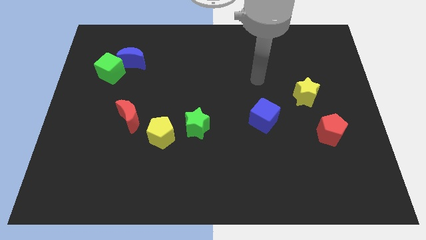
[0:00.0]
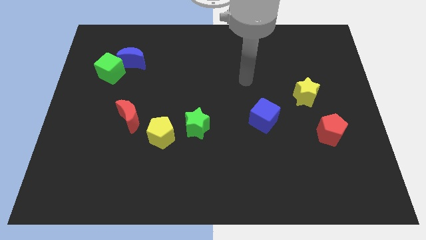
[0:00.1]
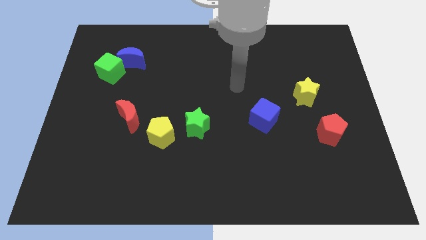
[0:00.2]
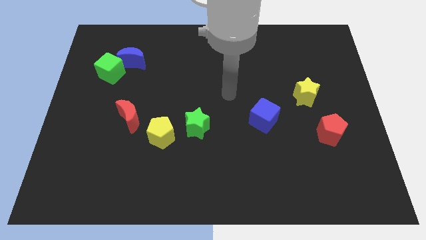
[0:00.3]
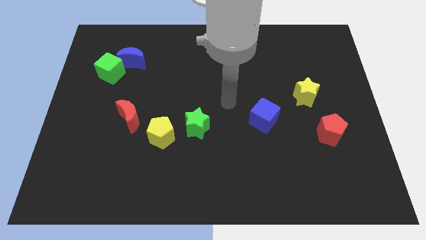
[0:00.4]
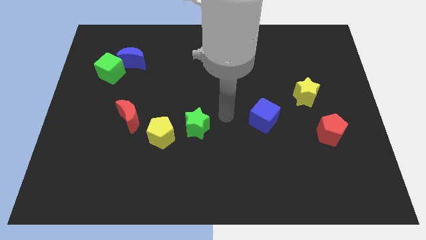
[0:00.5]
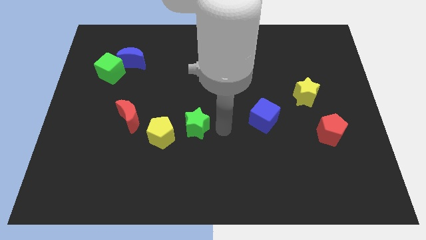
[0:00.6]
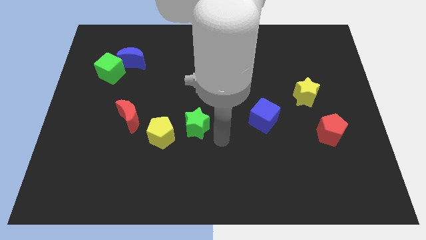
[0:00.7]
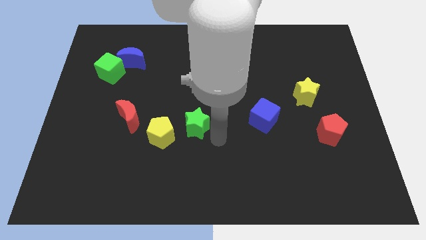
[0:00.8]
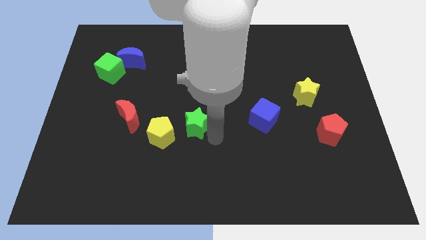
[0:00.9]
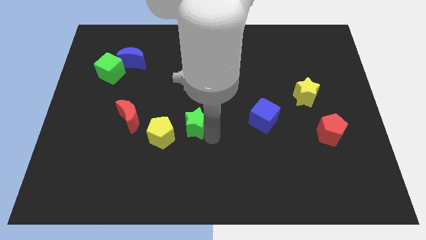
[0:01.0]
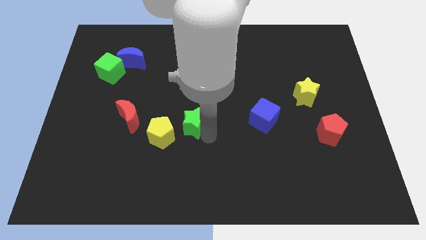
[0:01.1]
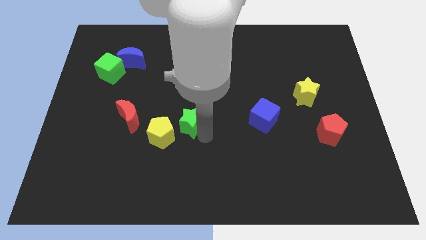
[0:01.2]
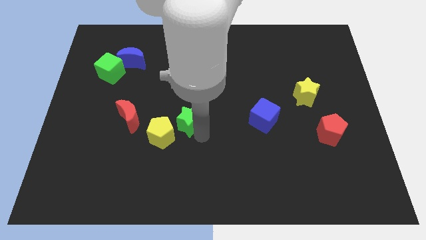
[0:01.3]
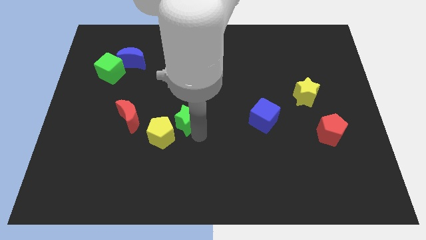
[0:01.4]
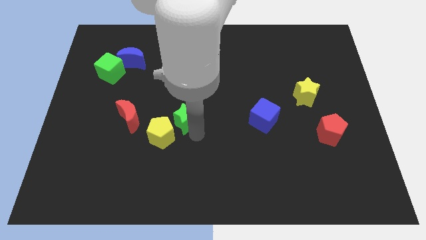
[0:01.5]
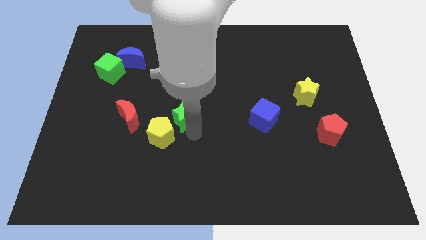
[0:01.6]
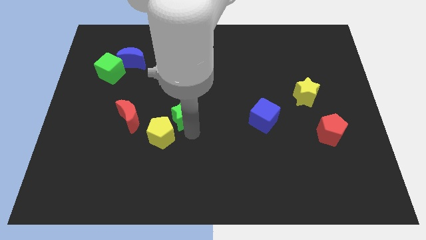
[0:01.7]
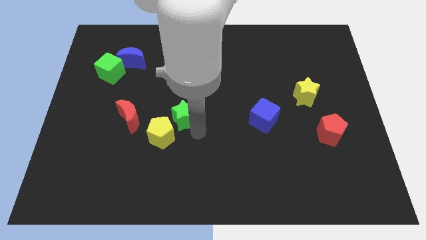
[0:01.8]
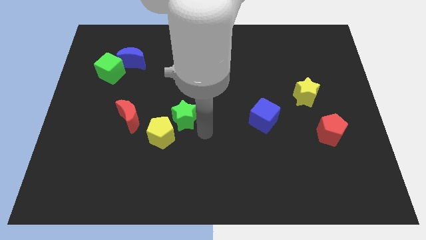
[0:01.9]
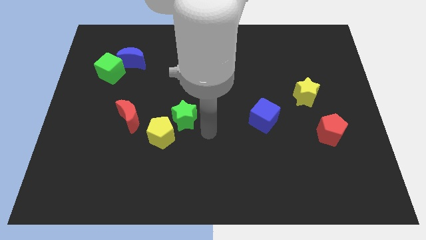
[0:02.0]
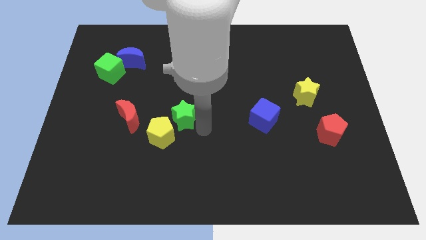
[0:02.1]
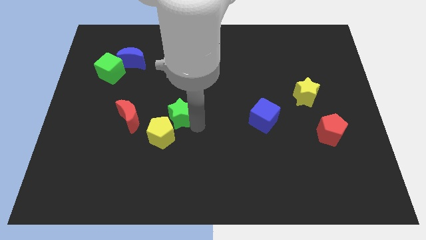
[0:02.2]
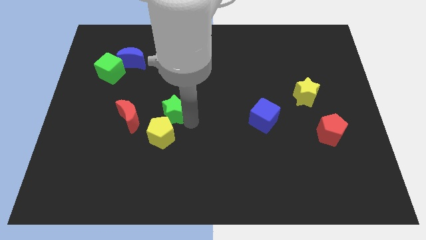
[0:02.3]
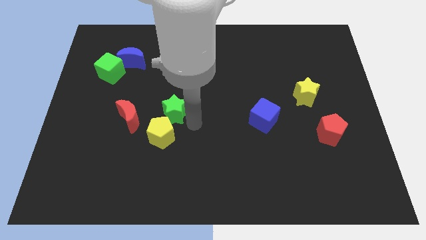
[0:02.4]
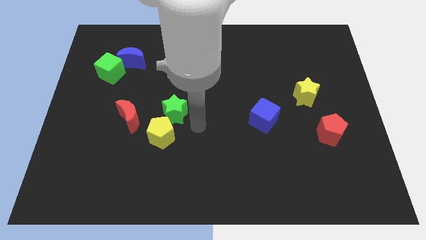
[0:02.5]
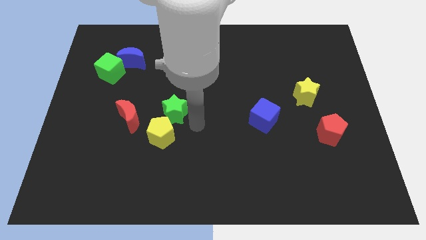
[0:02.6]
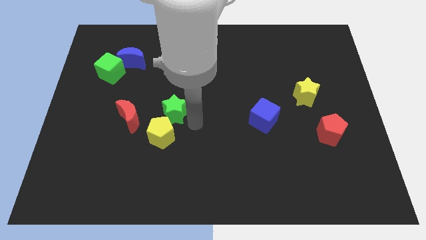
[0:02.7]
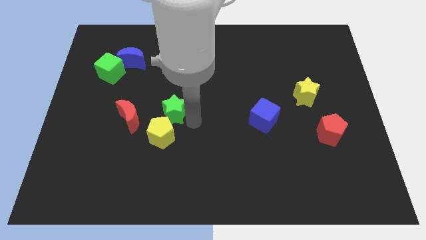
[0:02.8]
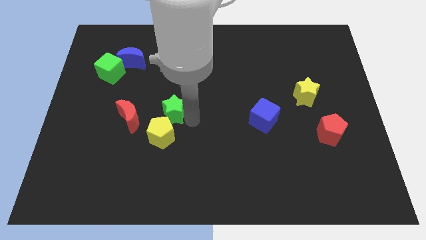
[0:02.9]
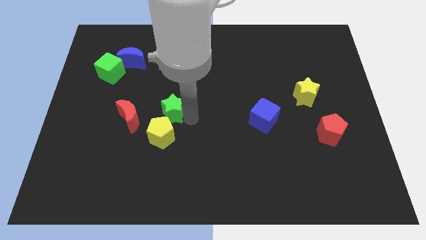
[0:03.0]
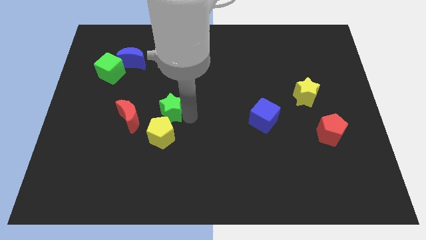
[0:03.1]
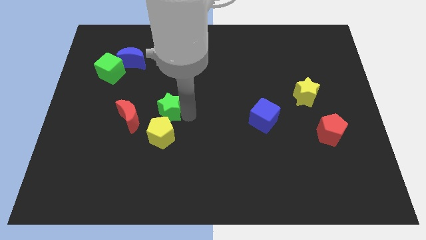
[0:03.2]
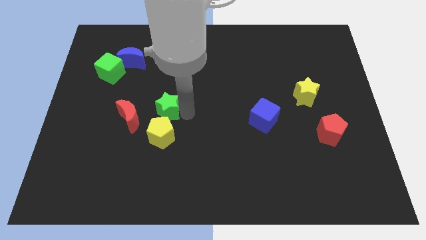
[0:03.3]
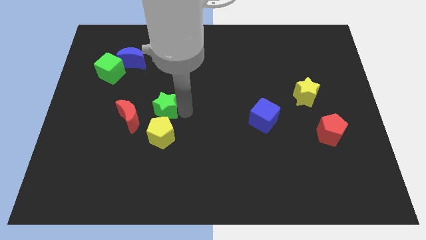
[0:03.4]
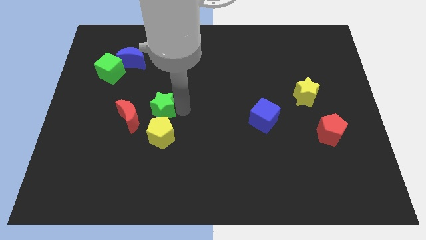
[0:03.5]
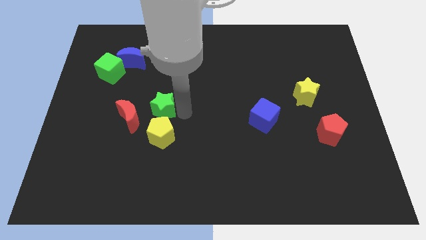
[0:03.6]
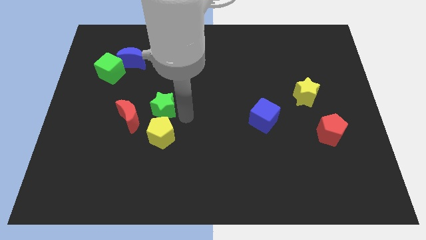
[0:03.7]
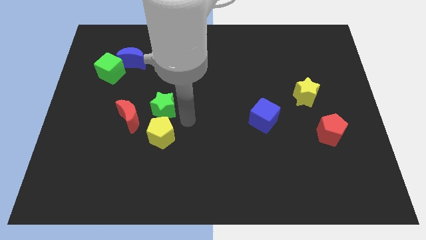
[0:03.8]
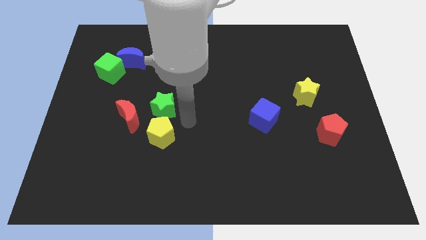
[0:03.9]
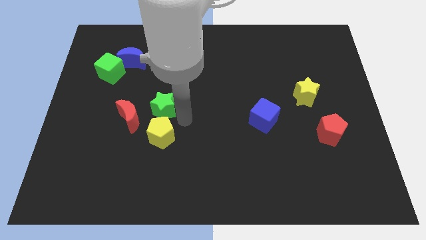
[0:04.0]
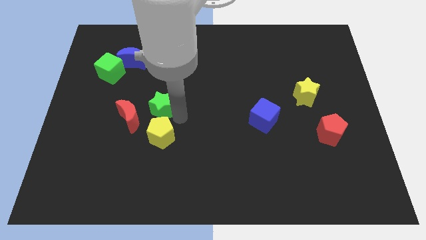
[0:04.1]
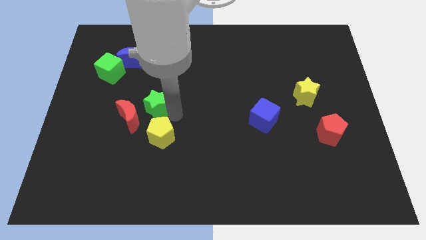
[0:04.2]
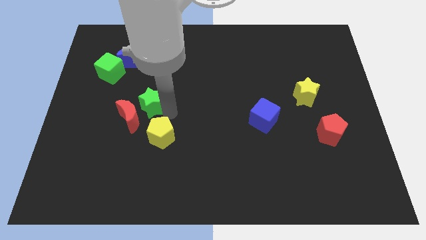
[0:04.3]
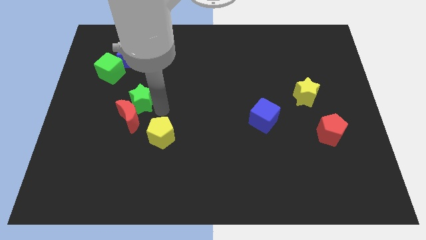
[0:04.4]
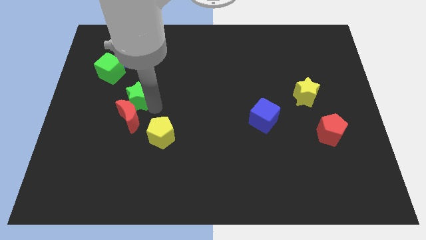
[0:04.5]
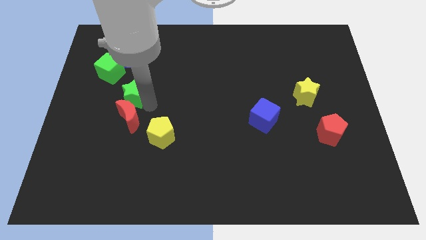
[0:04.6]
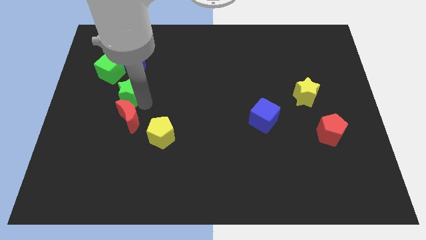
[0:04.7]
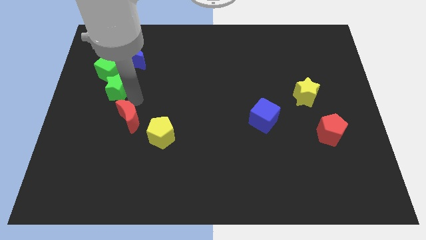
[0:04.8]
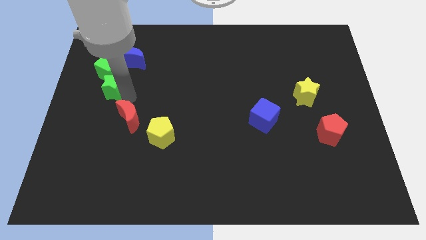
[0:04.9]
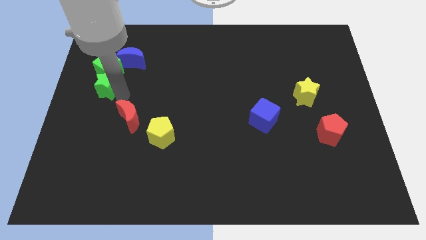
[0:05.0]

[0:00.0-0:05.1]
put the green star to the green cube

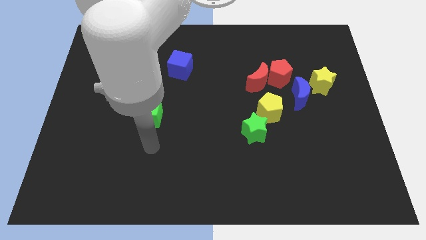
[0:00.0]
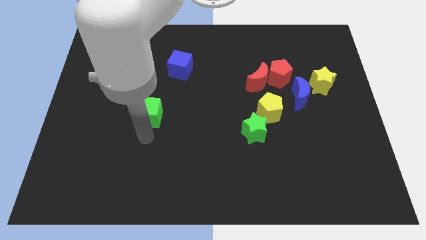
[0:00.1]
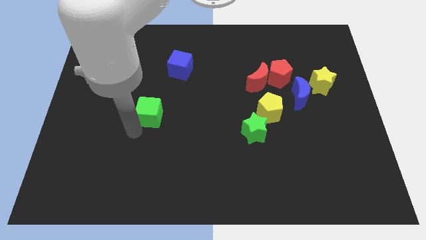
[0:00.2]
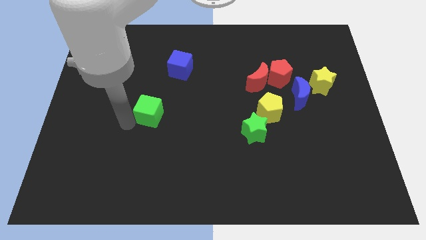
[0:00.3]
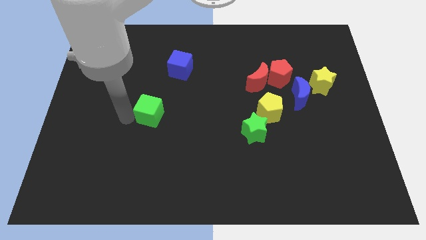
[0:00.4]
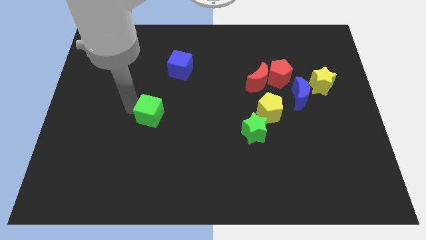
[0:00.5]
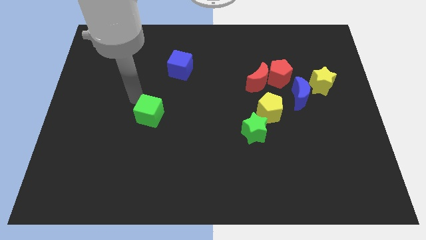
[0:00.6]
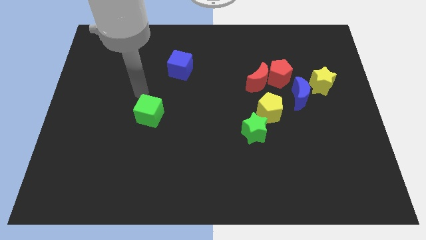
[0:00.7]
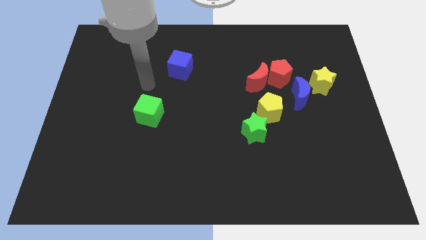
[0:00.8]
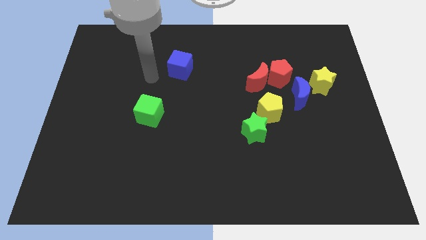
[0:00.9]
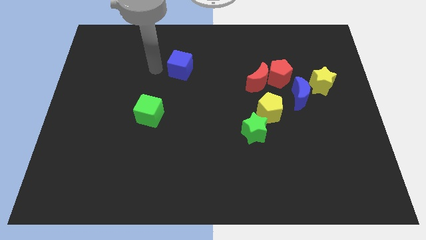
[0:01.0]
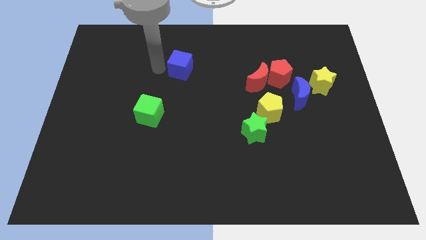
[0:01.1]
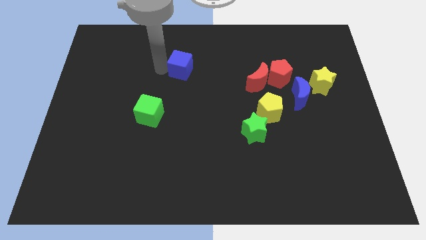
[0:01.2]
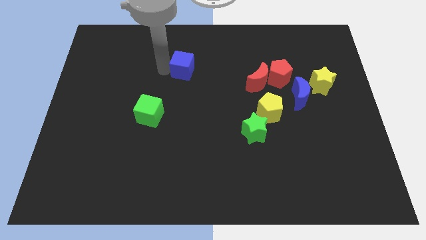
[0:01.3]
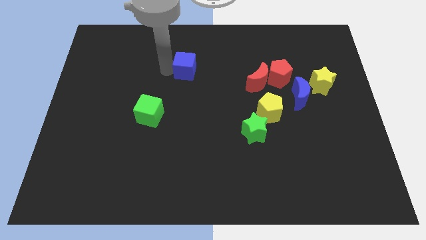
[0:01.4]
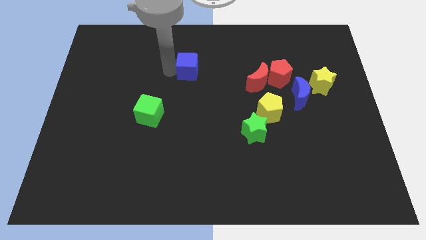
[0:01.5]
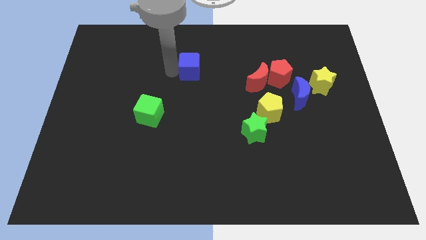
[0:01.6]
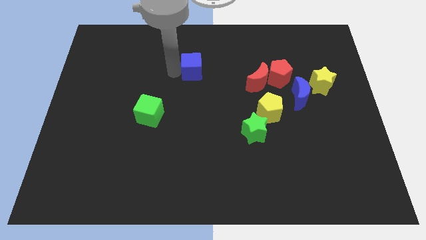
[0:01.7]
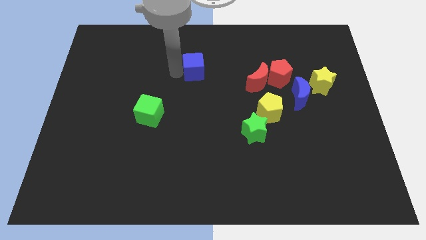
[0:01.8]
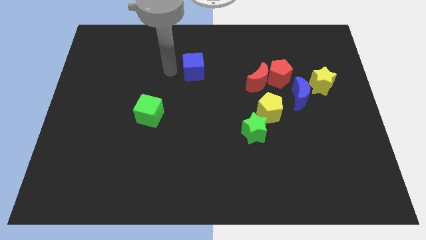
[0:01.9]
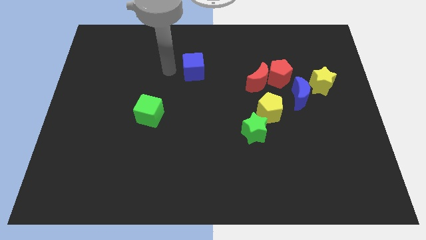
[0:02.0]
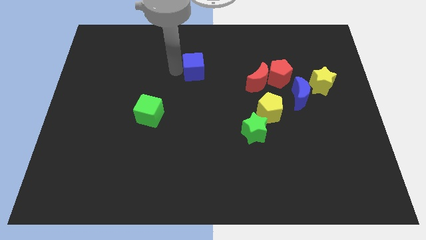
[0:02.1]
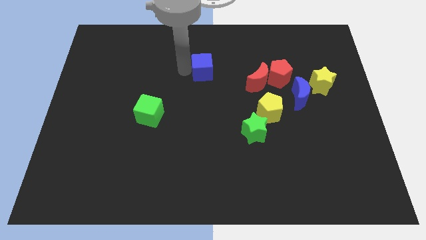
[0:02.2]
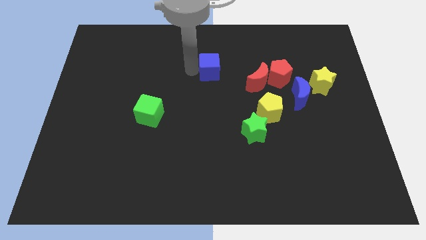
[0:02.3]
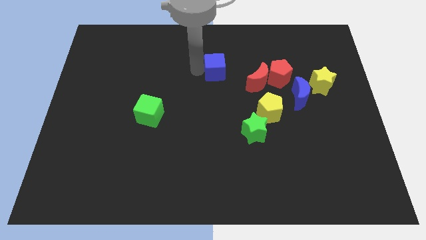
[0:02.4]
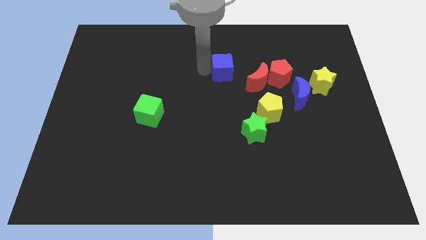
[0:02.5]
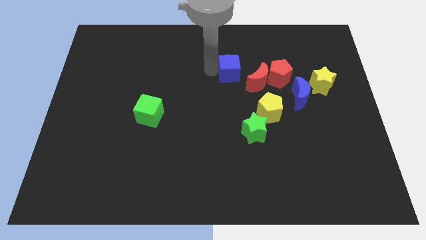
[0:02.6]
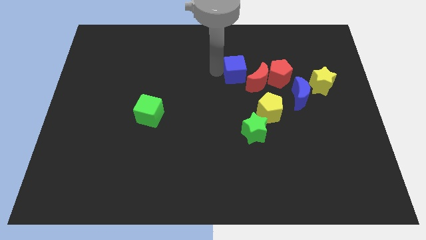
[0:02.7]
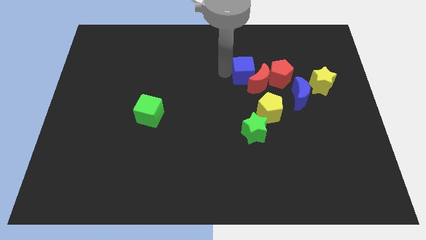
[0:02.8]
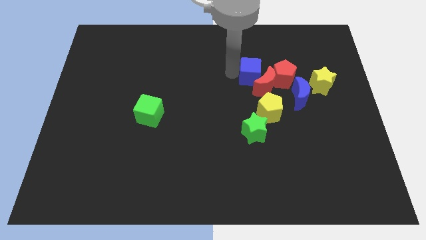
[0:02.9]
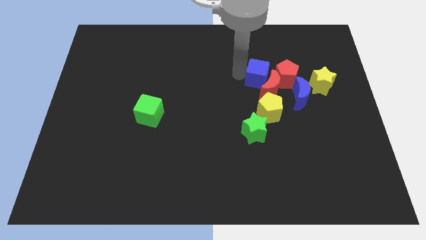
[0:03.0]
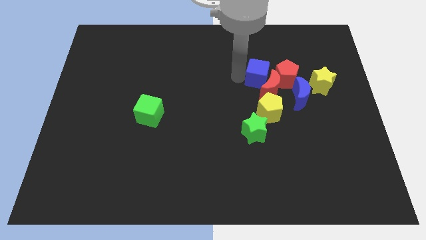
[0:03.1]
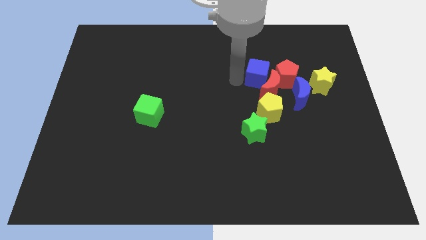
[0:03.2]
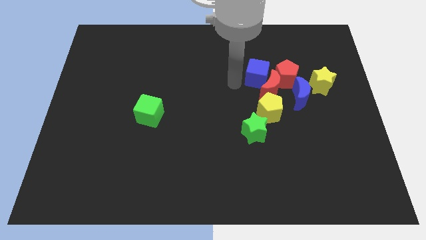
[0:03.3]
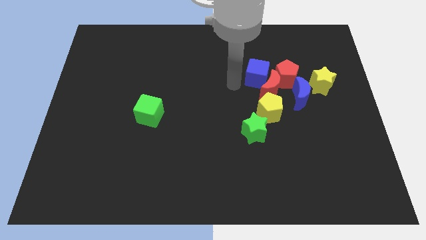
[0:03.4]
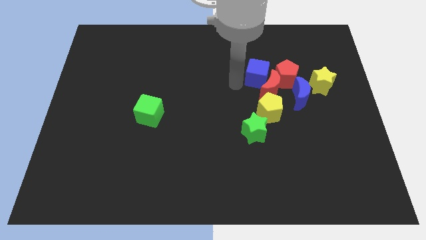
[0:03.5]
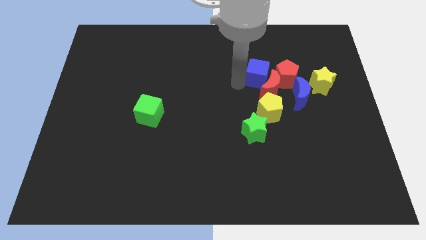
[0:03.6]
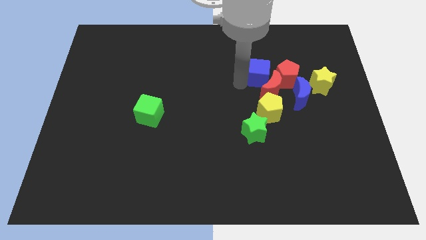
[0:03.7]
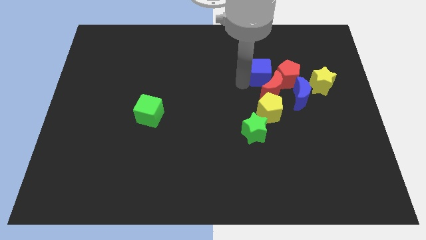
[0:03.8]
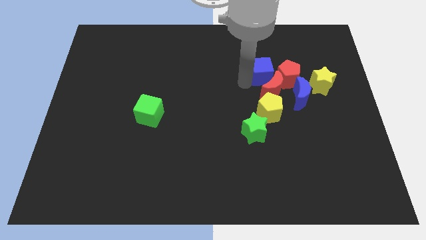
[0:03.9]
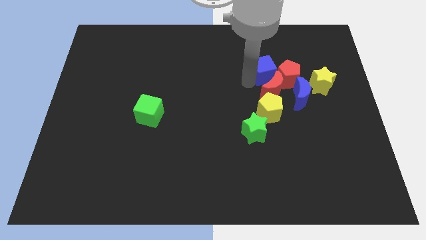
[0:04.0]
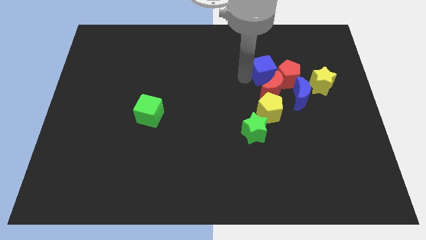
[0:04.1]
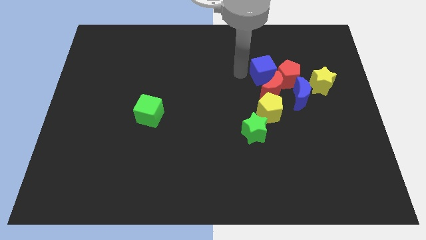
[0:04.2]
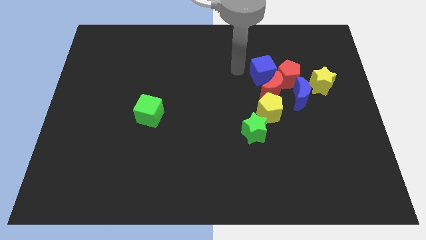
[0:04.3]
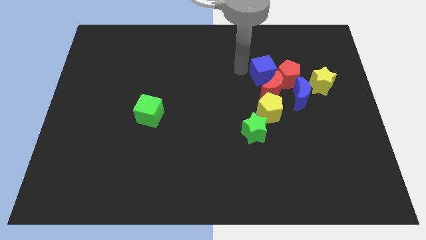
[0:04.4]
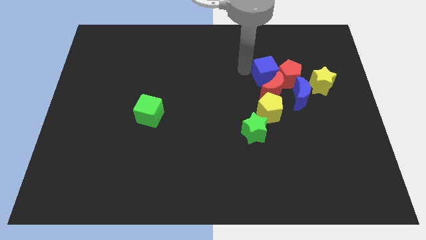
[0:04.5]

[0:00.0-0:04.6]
put the blue cube next to the red pentagon
